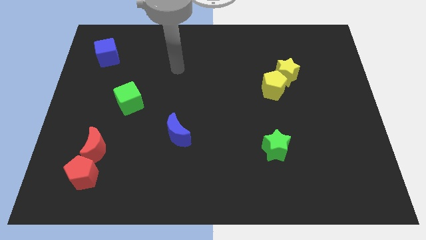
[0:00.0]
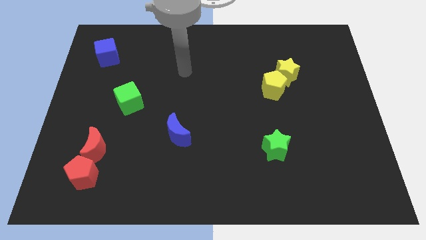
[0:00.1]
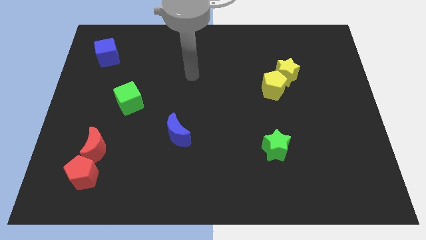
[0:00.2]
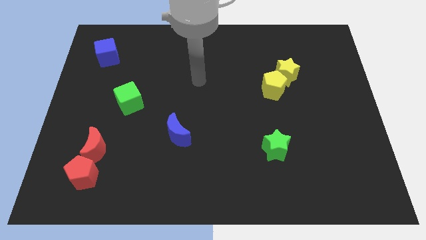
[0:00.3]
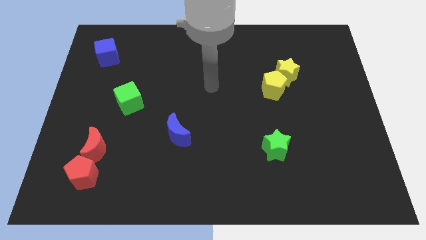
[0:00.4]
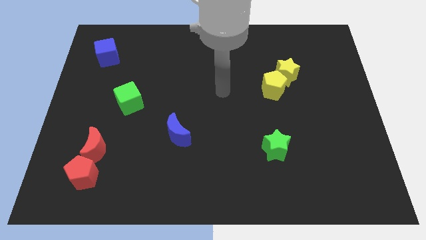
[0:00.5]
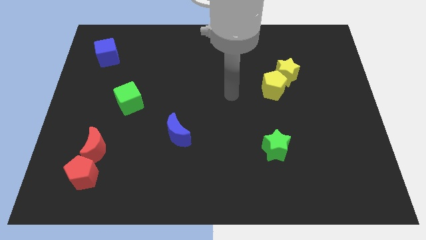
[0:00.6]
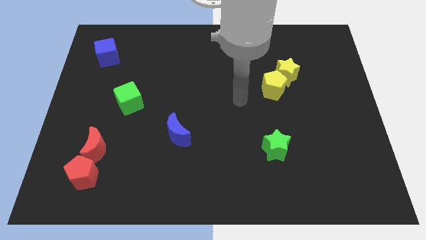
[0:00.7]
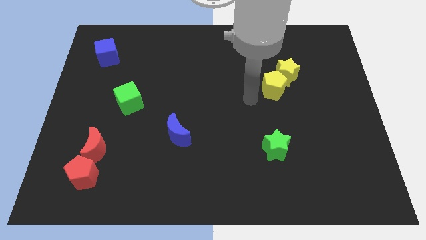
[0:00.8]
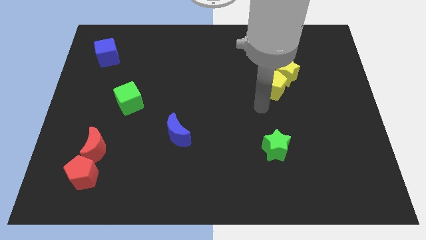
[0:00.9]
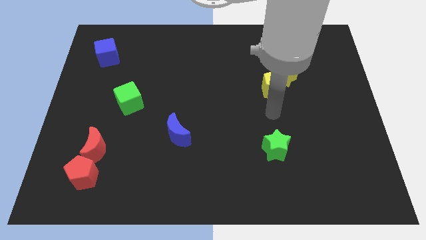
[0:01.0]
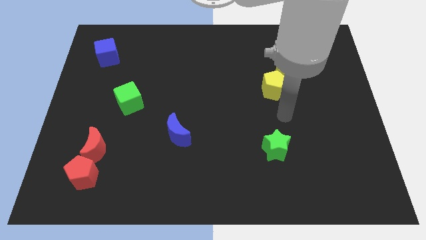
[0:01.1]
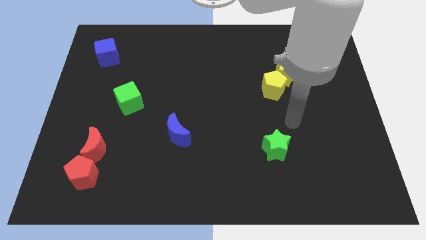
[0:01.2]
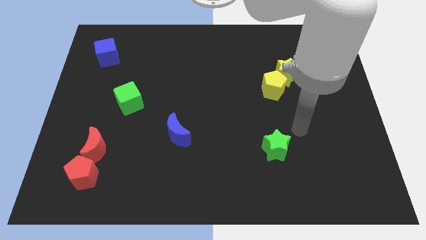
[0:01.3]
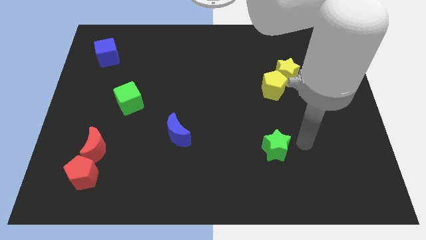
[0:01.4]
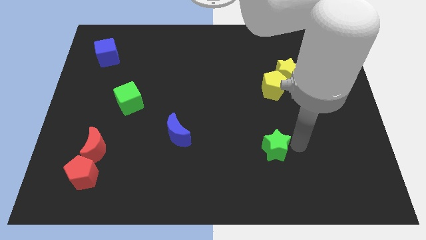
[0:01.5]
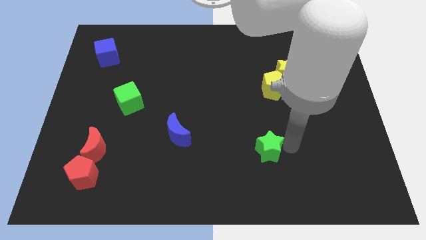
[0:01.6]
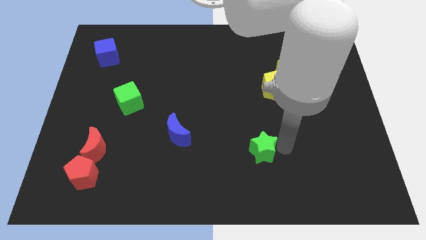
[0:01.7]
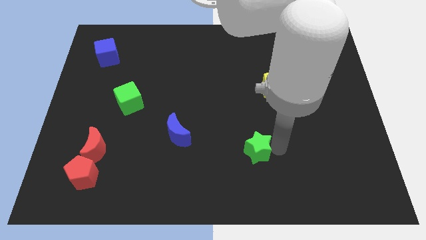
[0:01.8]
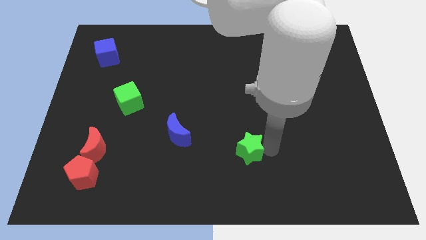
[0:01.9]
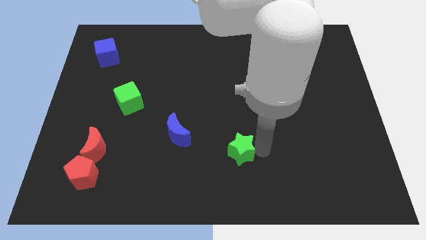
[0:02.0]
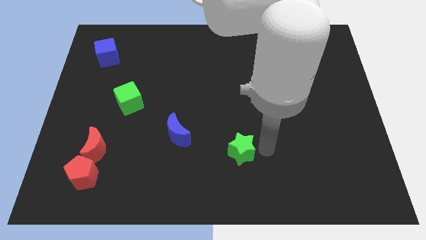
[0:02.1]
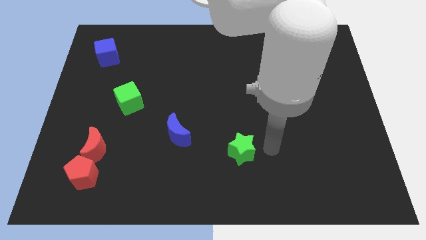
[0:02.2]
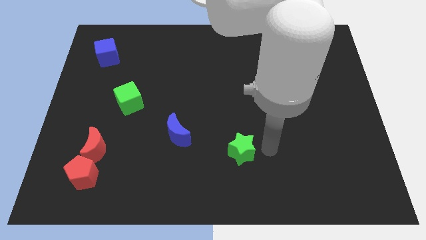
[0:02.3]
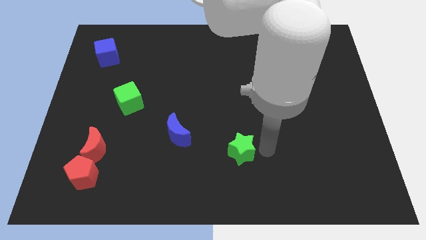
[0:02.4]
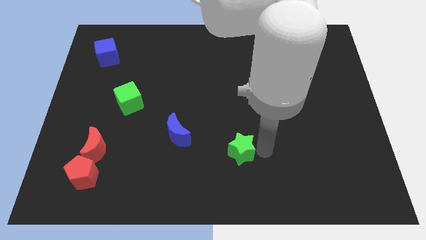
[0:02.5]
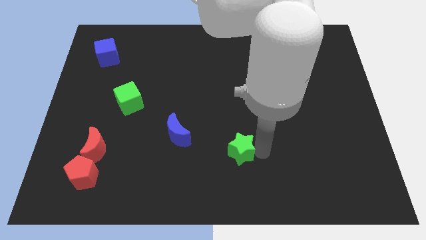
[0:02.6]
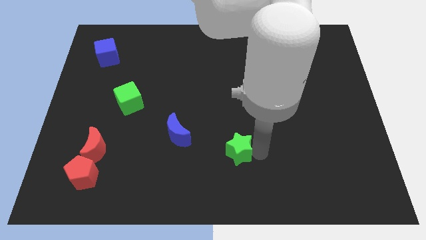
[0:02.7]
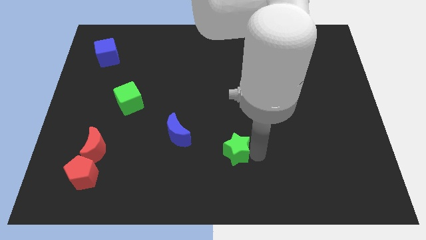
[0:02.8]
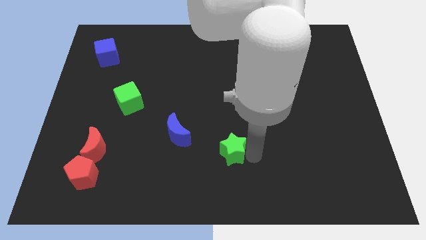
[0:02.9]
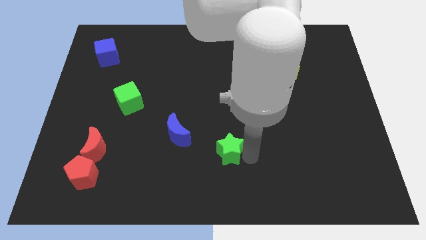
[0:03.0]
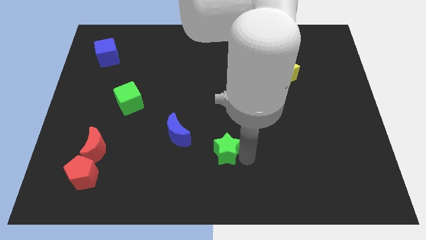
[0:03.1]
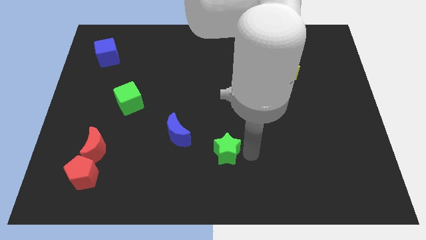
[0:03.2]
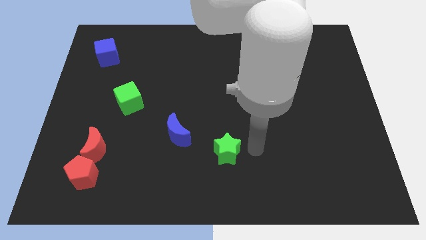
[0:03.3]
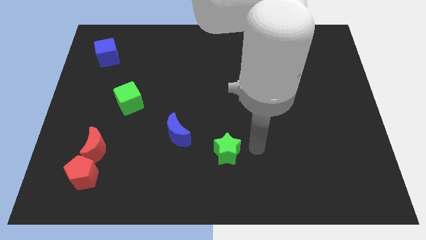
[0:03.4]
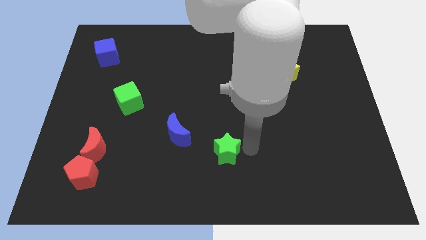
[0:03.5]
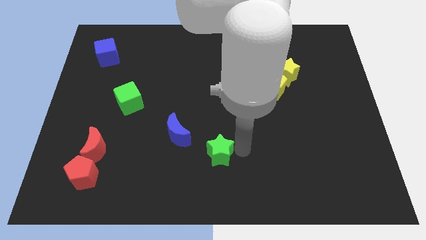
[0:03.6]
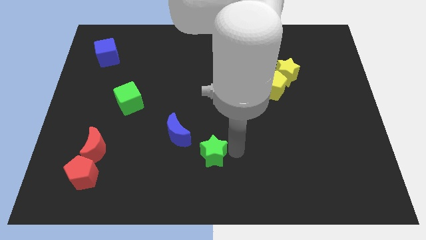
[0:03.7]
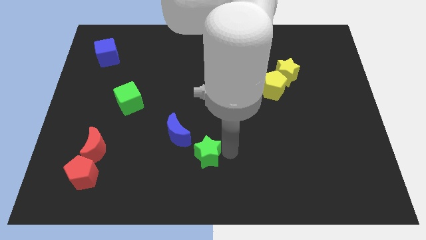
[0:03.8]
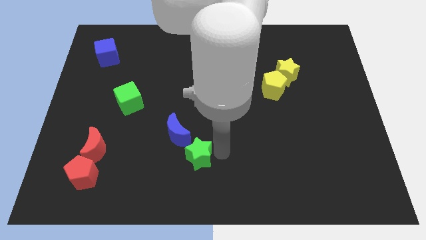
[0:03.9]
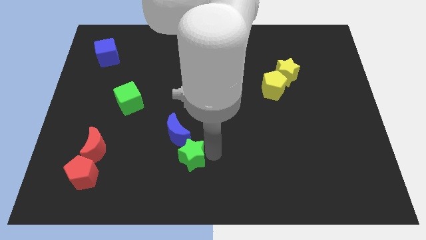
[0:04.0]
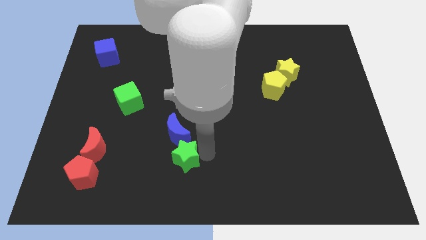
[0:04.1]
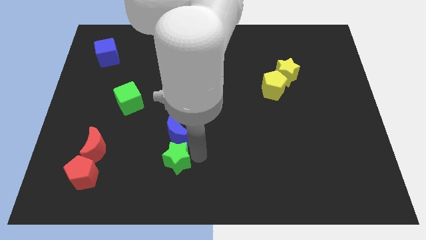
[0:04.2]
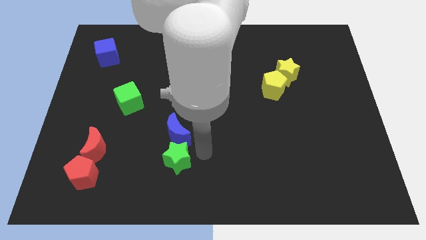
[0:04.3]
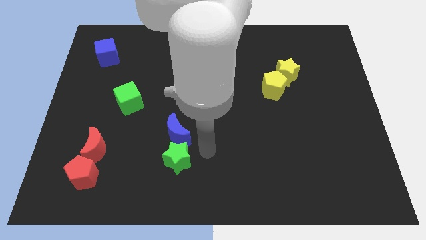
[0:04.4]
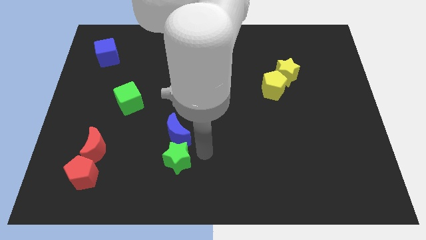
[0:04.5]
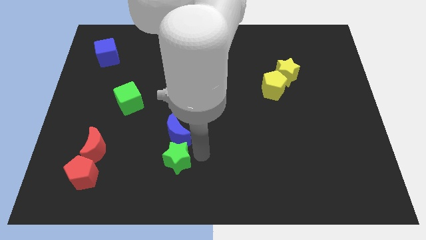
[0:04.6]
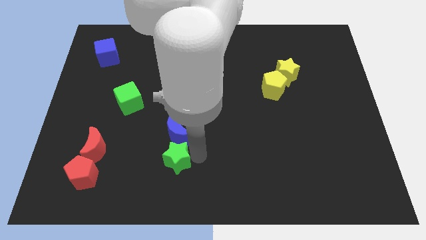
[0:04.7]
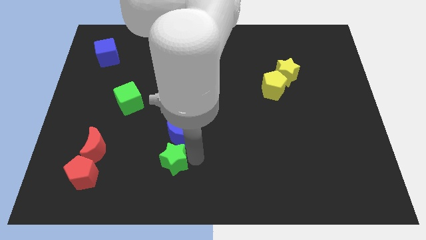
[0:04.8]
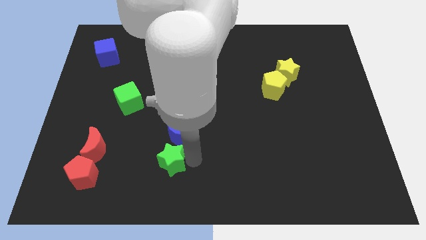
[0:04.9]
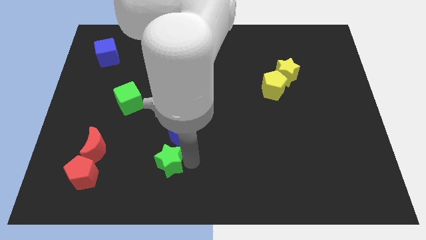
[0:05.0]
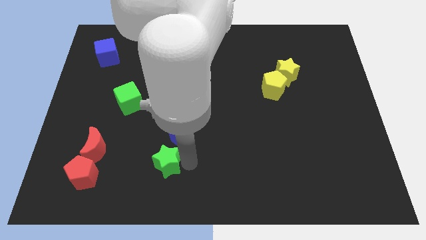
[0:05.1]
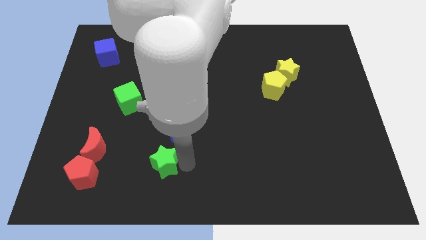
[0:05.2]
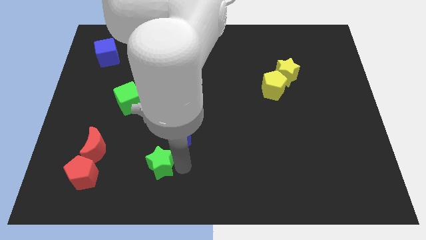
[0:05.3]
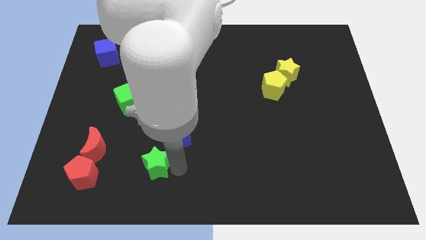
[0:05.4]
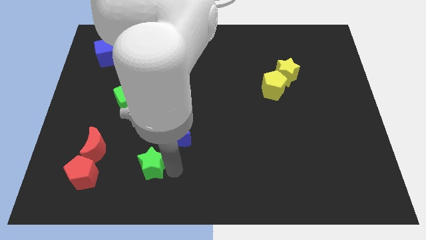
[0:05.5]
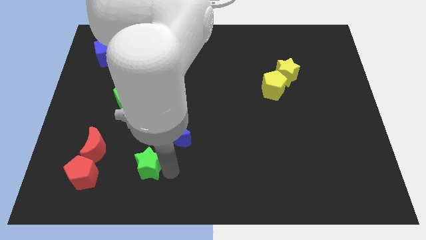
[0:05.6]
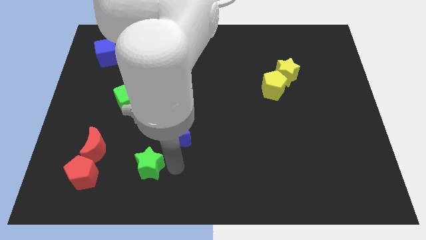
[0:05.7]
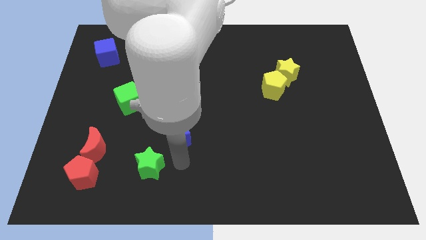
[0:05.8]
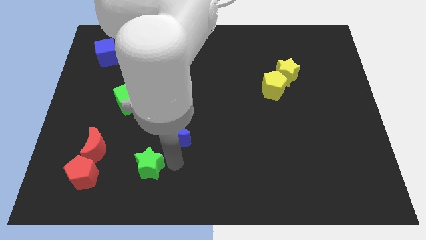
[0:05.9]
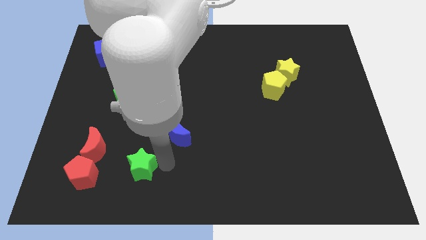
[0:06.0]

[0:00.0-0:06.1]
slide the green star to the bottom right side of the red moon

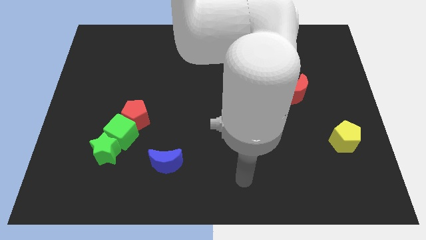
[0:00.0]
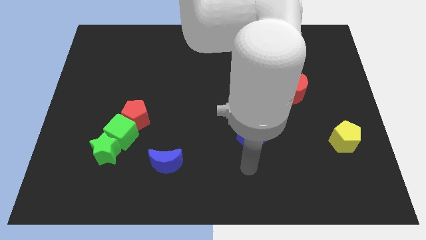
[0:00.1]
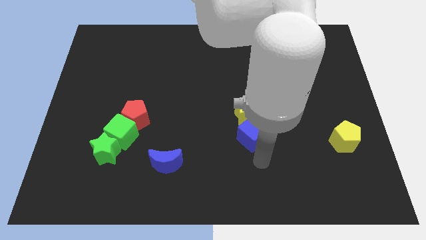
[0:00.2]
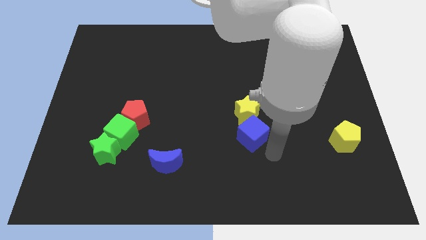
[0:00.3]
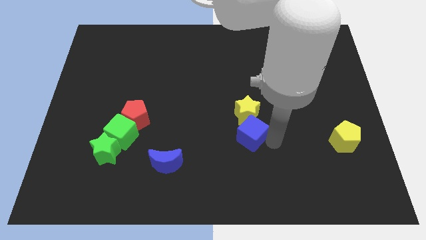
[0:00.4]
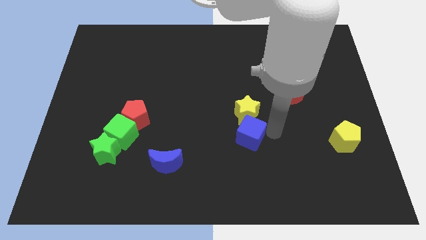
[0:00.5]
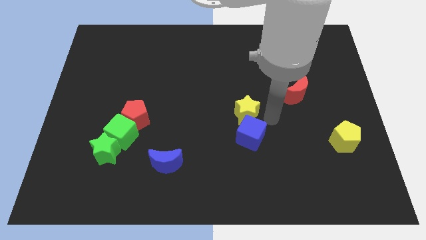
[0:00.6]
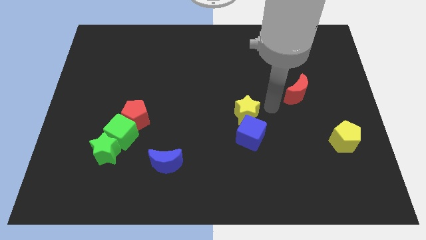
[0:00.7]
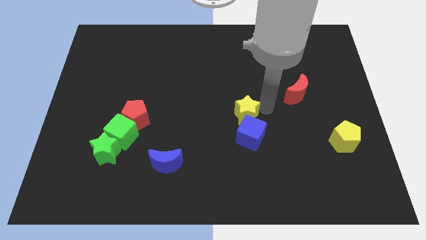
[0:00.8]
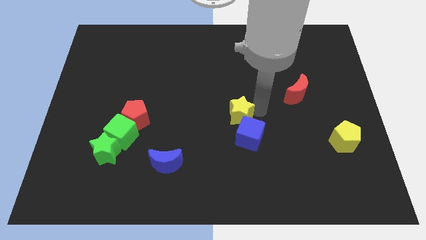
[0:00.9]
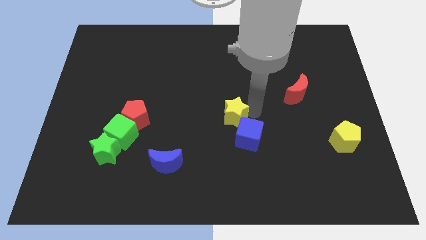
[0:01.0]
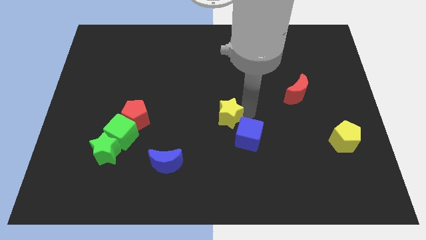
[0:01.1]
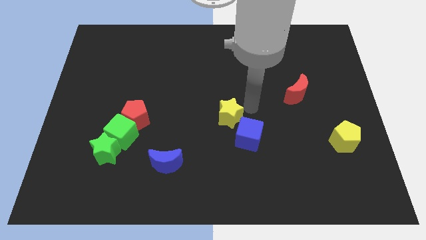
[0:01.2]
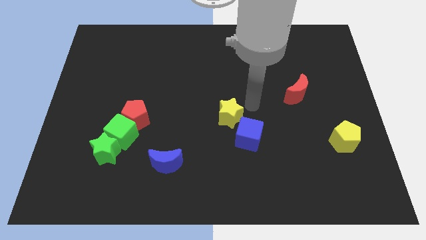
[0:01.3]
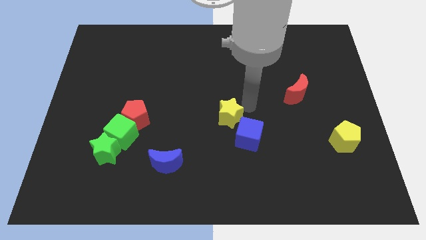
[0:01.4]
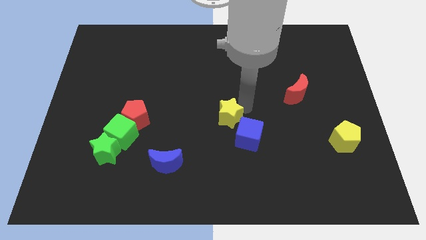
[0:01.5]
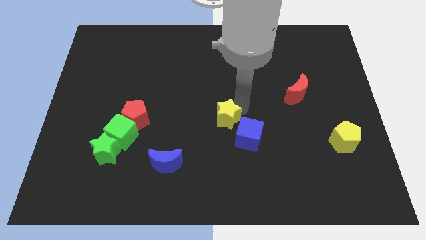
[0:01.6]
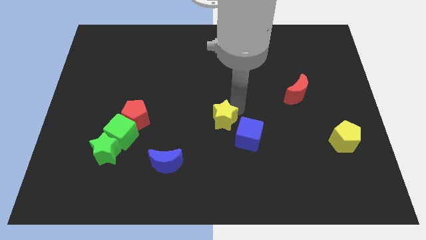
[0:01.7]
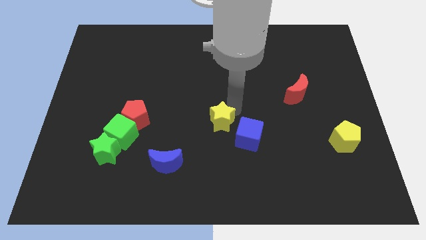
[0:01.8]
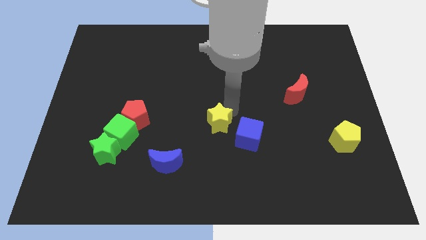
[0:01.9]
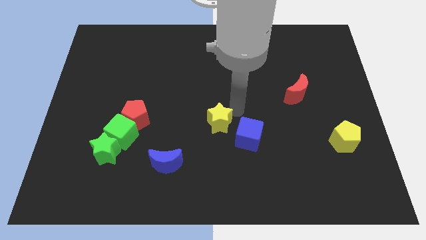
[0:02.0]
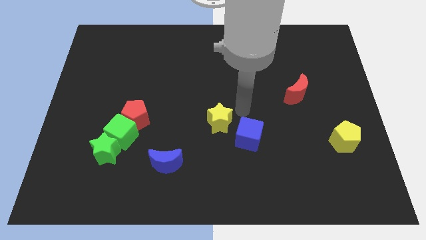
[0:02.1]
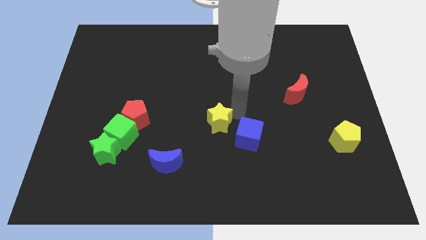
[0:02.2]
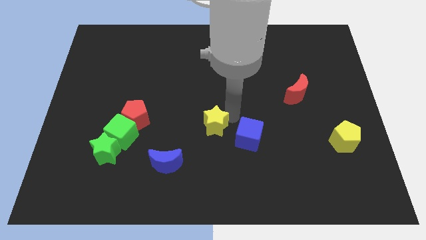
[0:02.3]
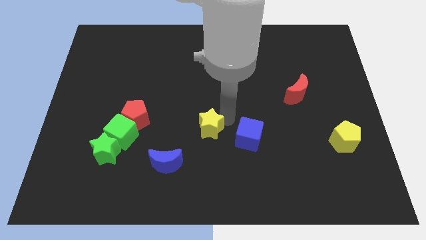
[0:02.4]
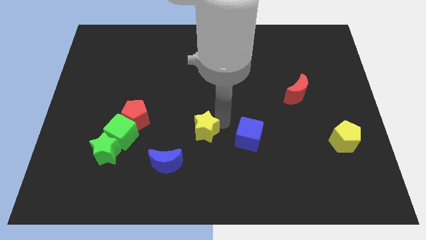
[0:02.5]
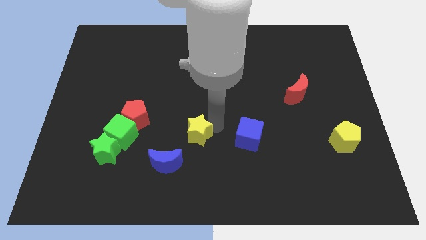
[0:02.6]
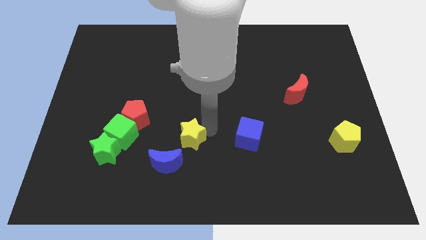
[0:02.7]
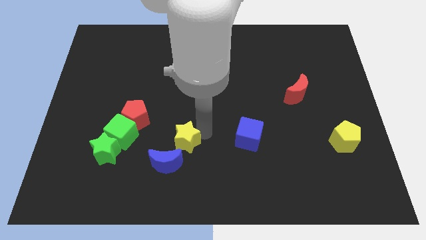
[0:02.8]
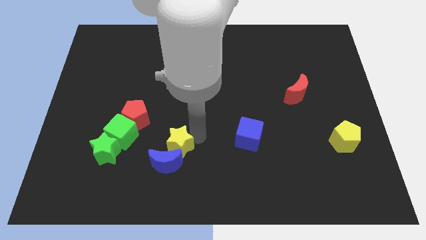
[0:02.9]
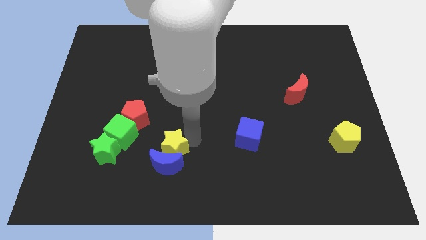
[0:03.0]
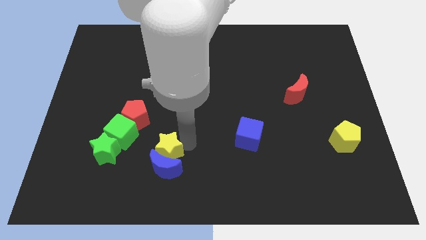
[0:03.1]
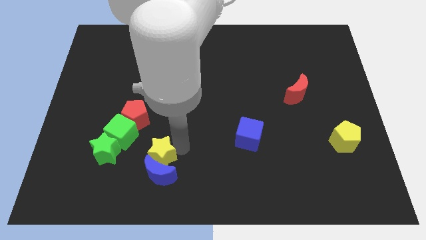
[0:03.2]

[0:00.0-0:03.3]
put the yellow star diagonally down and to the right of the green cube
